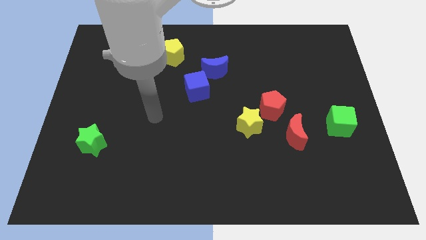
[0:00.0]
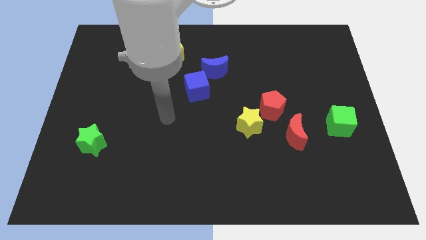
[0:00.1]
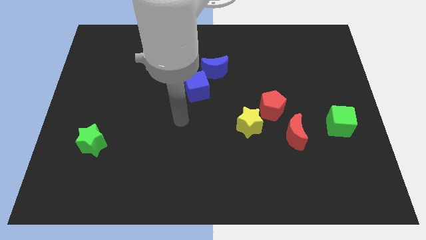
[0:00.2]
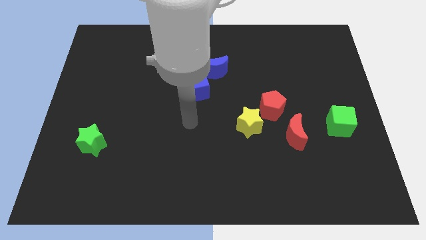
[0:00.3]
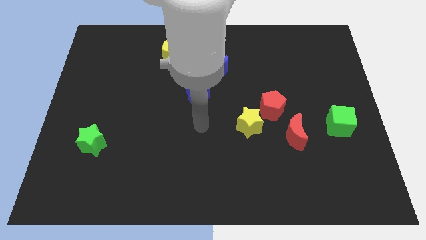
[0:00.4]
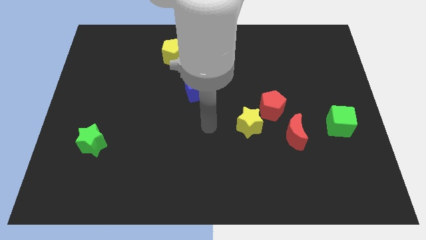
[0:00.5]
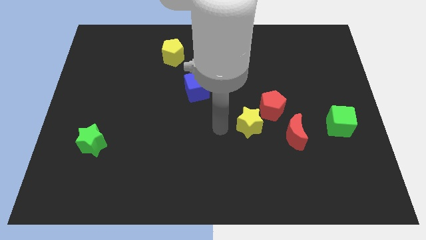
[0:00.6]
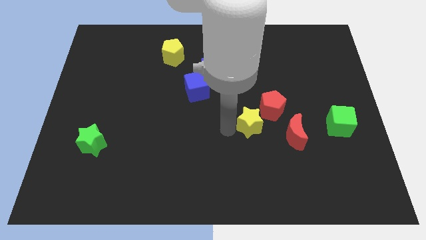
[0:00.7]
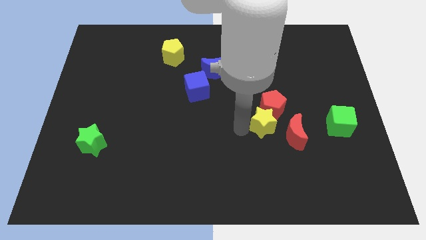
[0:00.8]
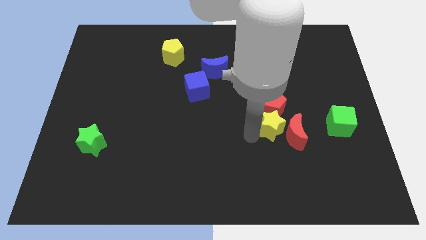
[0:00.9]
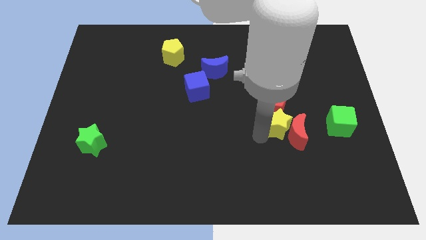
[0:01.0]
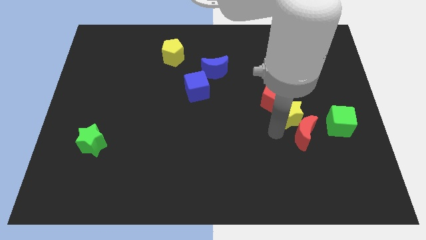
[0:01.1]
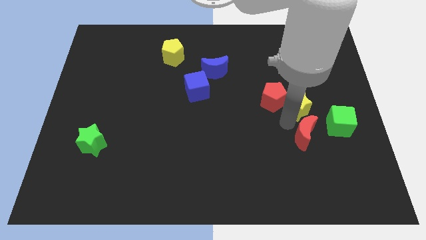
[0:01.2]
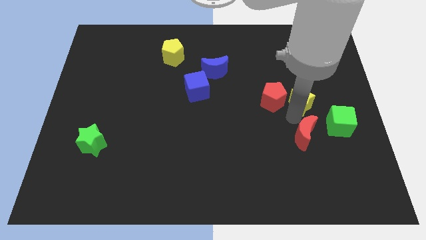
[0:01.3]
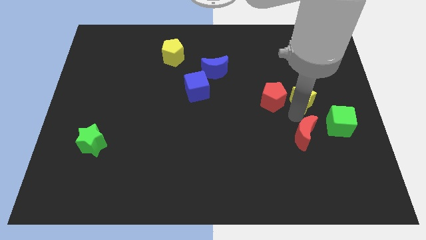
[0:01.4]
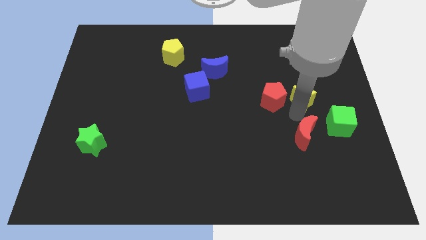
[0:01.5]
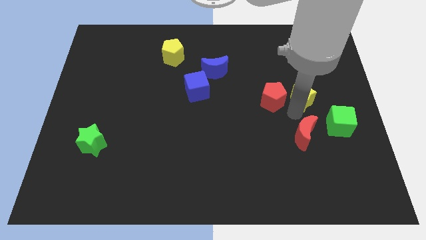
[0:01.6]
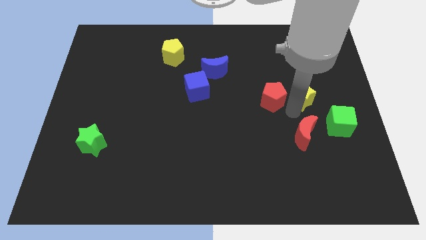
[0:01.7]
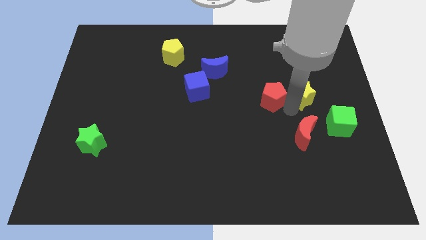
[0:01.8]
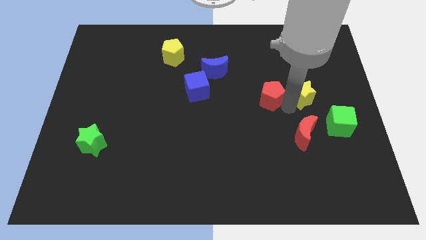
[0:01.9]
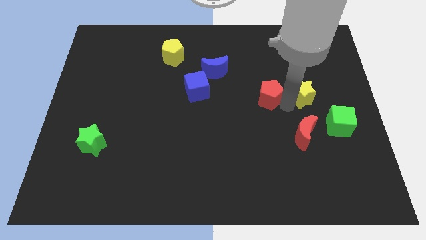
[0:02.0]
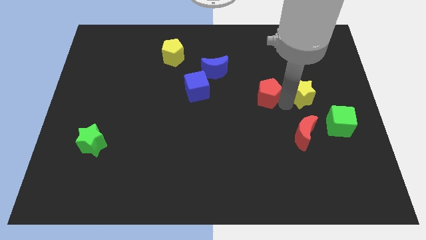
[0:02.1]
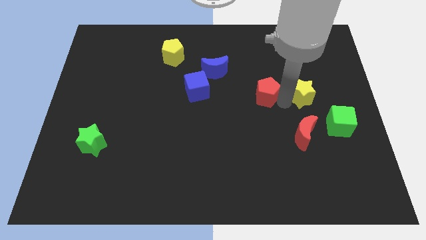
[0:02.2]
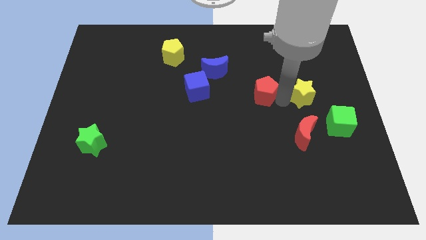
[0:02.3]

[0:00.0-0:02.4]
move the red pentagon away from the yellow star and red moon

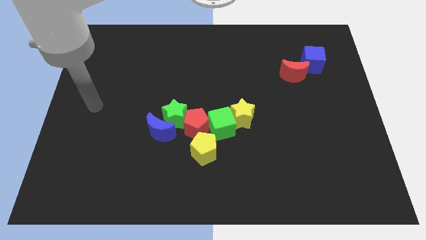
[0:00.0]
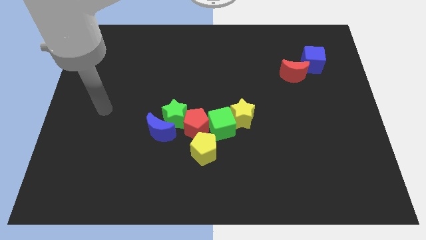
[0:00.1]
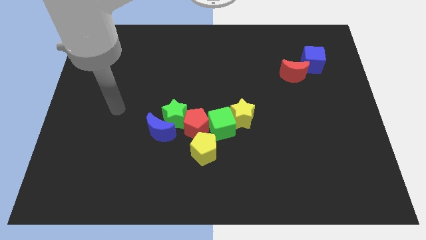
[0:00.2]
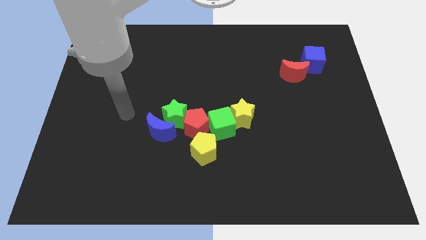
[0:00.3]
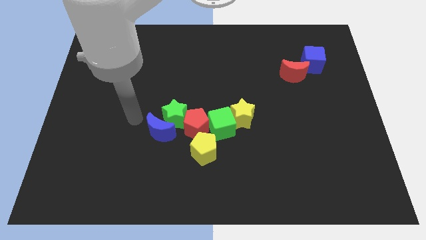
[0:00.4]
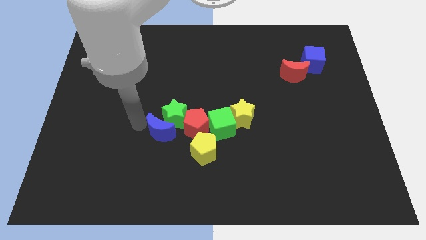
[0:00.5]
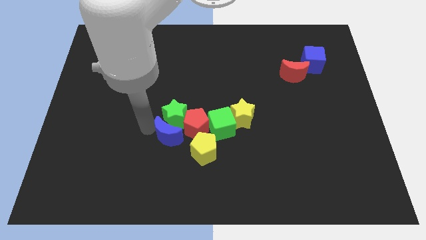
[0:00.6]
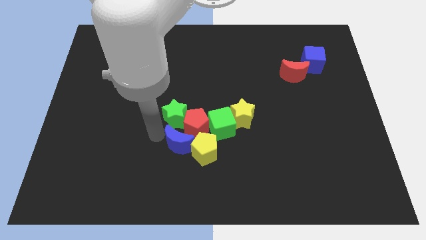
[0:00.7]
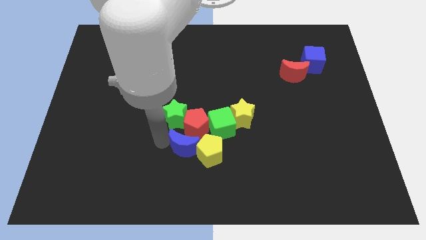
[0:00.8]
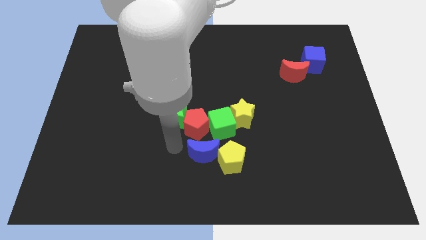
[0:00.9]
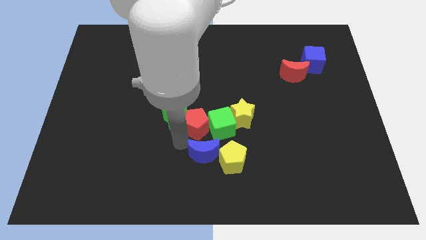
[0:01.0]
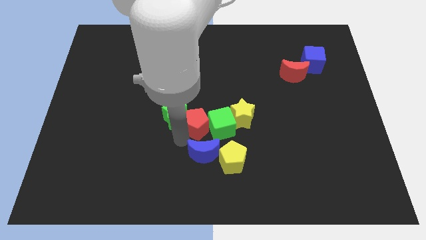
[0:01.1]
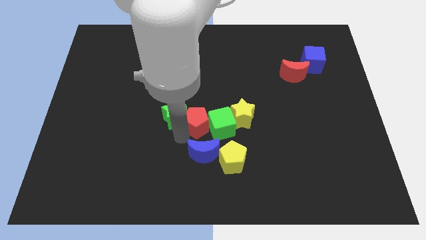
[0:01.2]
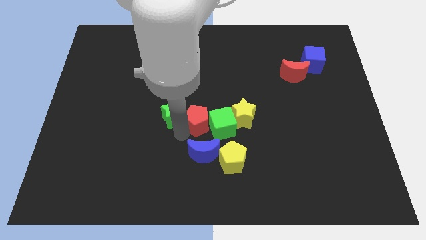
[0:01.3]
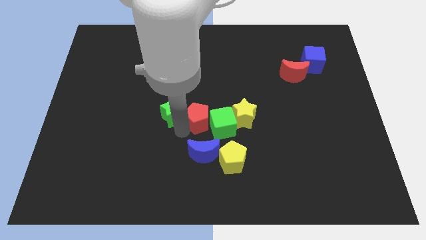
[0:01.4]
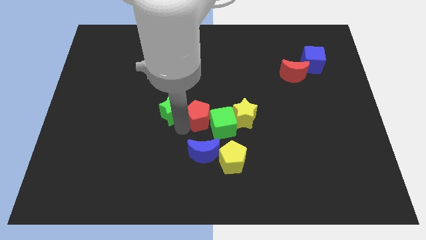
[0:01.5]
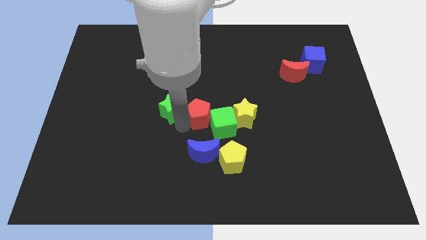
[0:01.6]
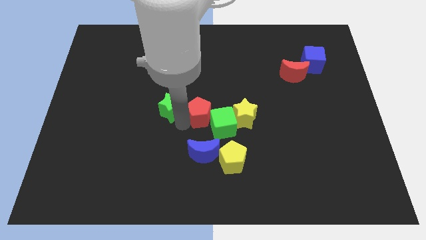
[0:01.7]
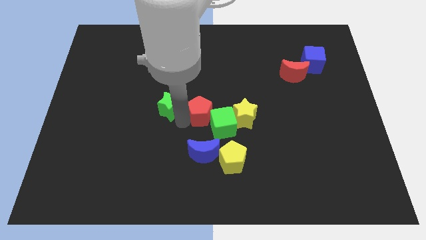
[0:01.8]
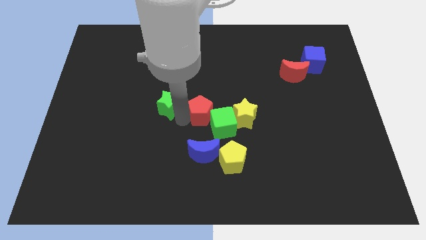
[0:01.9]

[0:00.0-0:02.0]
separate the green star from the blue moon and red pentagon

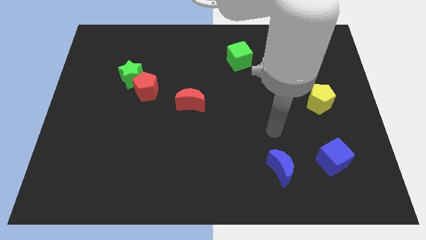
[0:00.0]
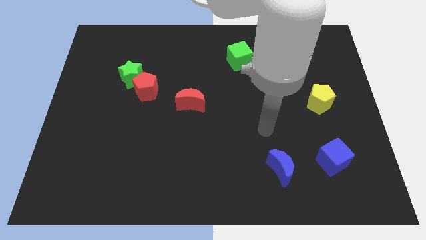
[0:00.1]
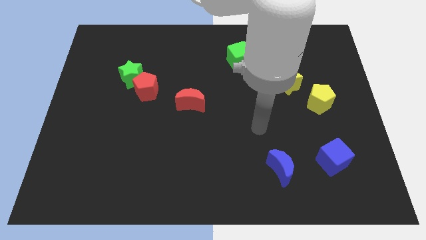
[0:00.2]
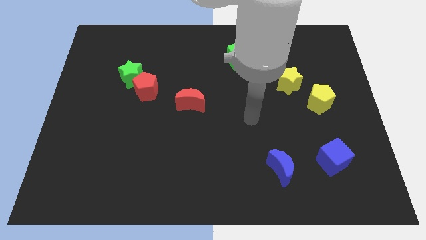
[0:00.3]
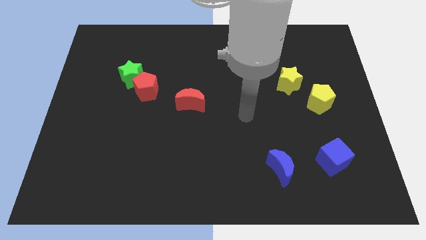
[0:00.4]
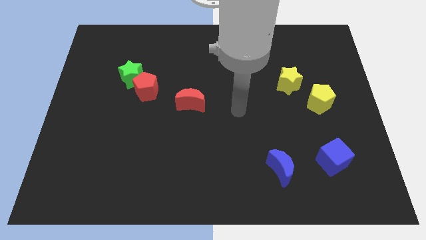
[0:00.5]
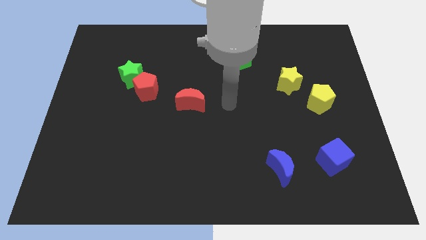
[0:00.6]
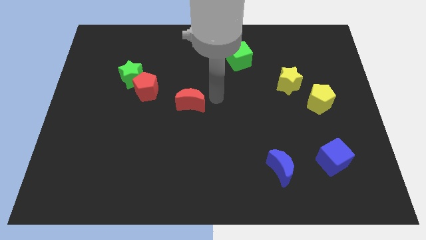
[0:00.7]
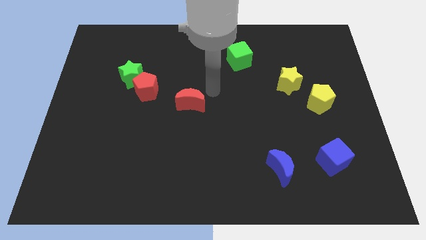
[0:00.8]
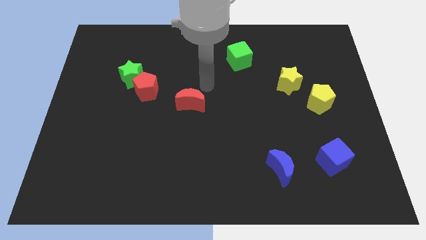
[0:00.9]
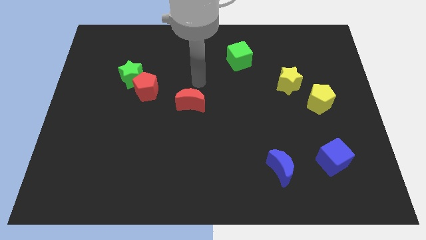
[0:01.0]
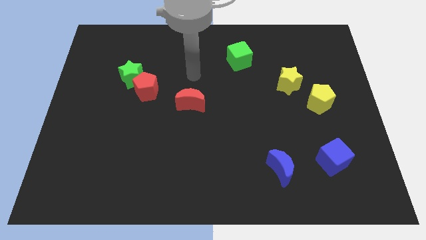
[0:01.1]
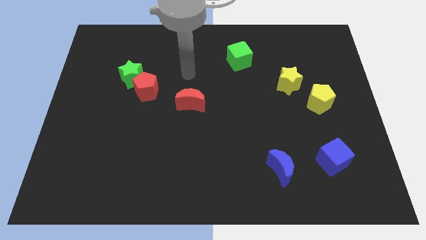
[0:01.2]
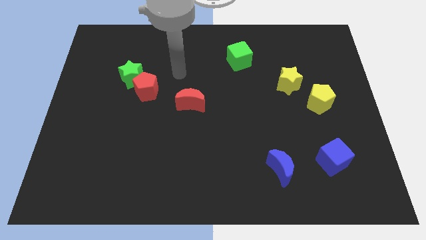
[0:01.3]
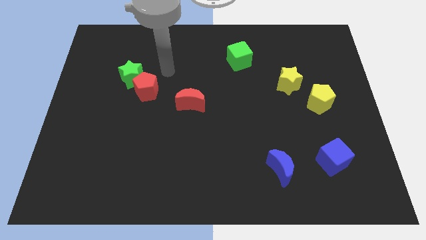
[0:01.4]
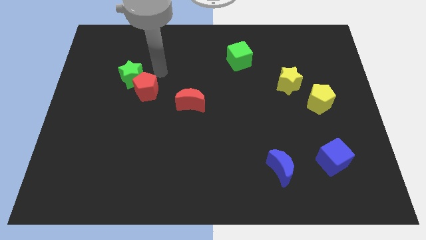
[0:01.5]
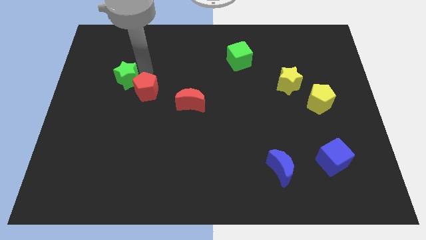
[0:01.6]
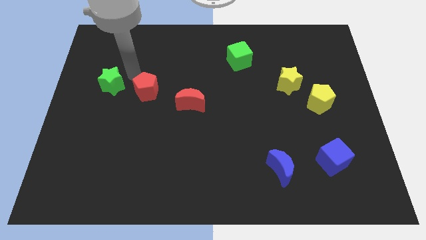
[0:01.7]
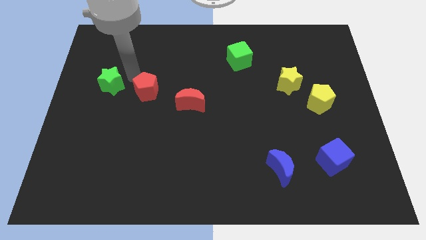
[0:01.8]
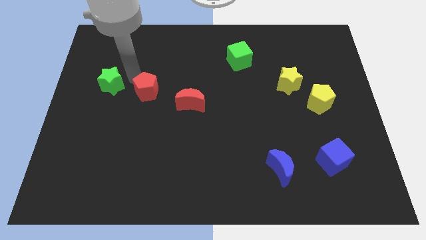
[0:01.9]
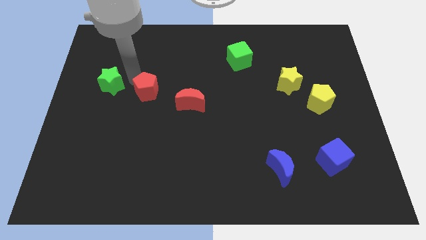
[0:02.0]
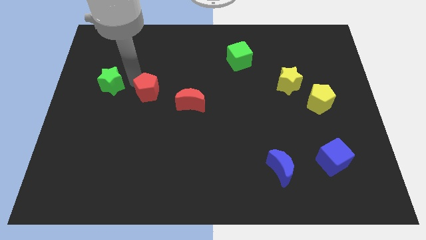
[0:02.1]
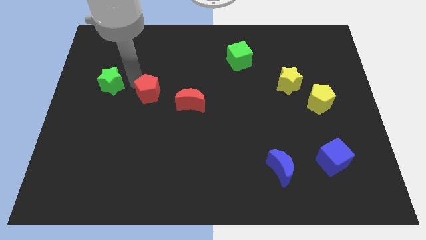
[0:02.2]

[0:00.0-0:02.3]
pull the red pentagon apart from the green star

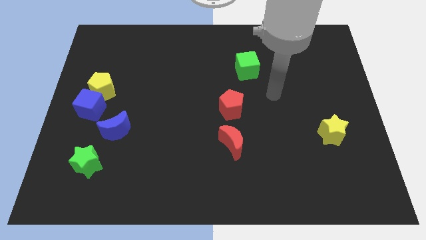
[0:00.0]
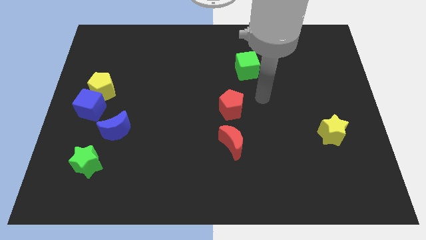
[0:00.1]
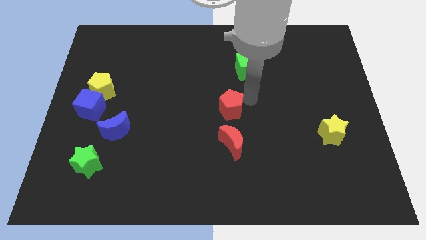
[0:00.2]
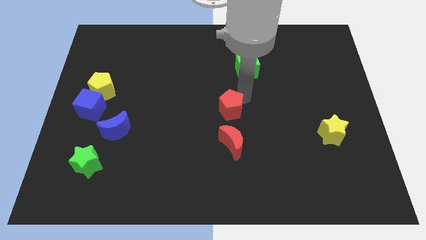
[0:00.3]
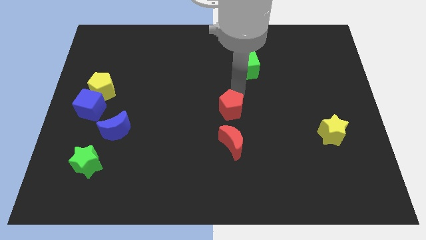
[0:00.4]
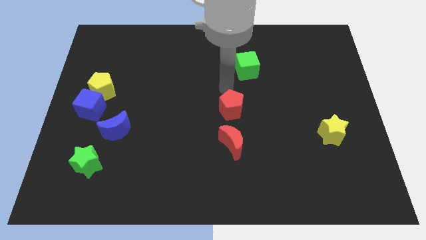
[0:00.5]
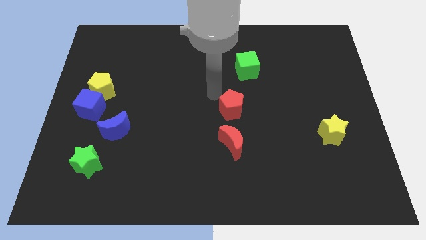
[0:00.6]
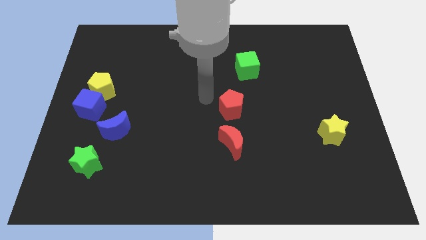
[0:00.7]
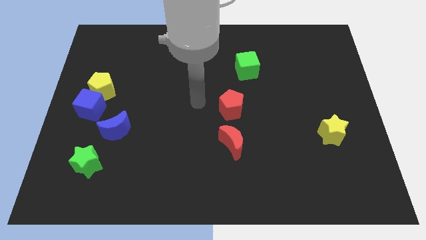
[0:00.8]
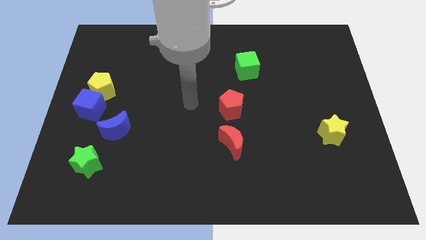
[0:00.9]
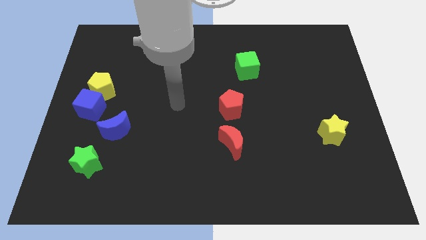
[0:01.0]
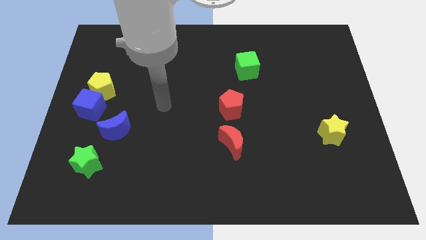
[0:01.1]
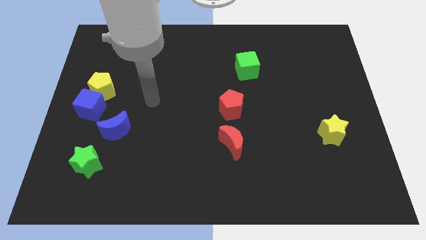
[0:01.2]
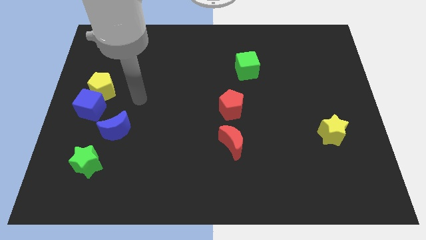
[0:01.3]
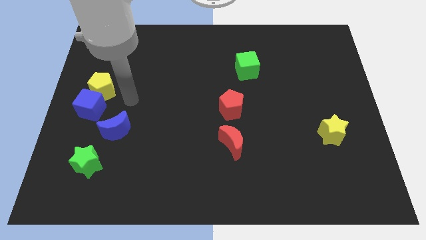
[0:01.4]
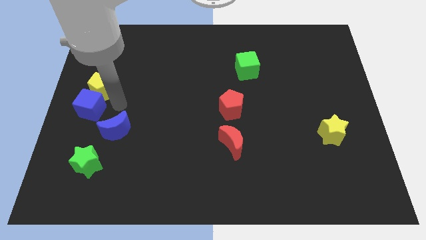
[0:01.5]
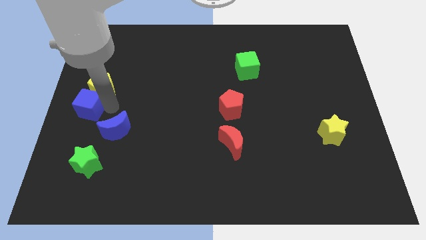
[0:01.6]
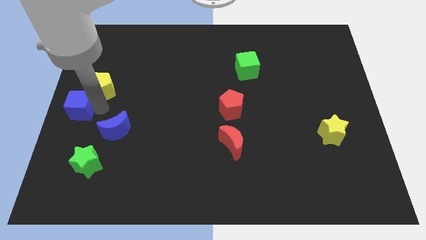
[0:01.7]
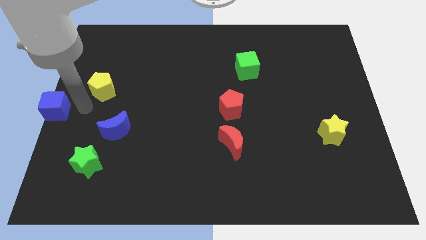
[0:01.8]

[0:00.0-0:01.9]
separate the yellow pentagon from the blue cube

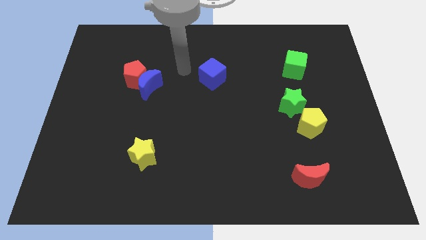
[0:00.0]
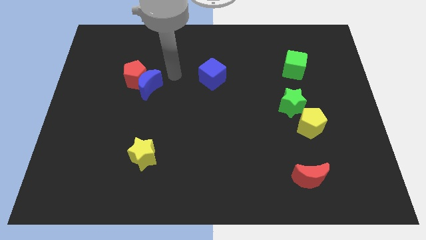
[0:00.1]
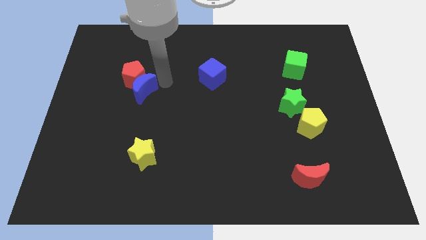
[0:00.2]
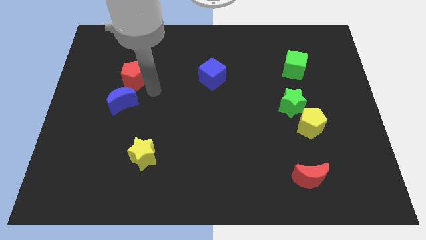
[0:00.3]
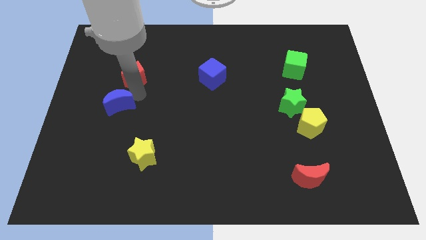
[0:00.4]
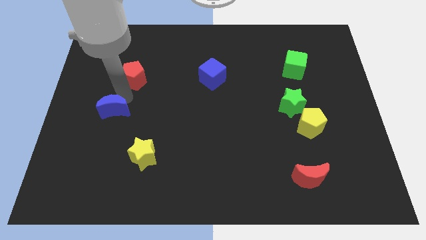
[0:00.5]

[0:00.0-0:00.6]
separate the red pentagon from the blue moon
